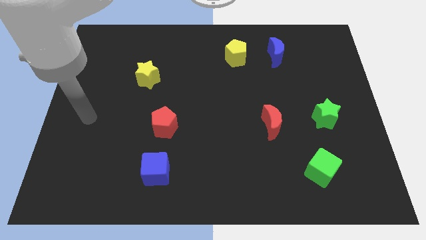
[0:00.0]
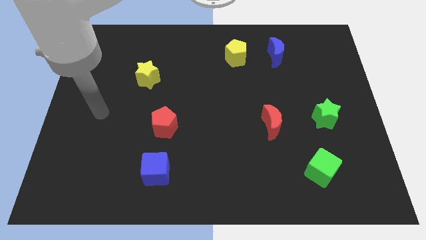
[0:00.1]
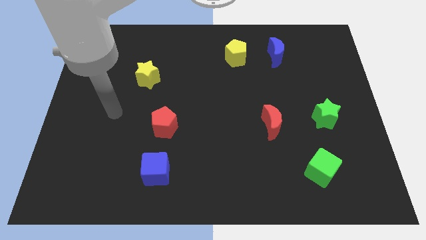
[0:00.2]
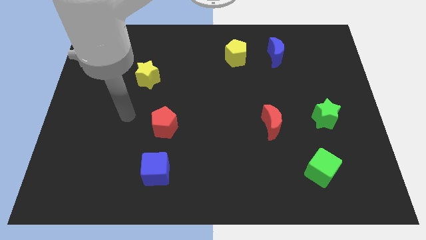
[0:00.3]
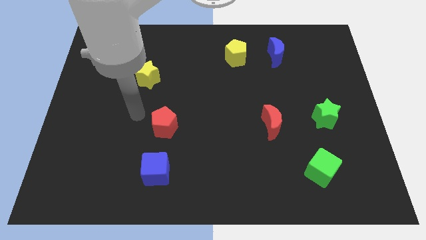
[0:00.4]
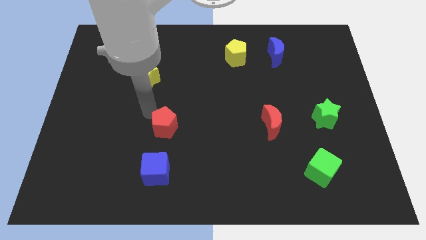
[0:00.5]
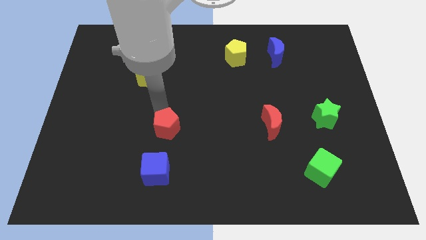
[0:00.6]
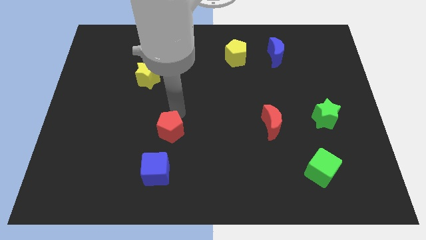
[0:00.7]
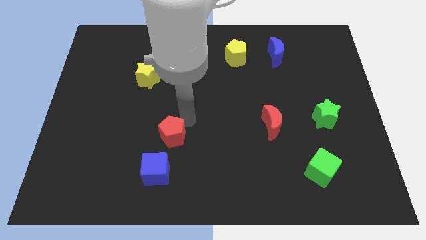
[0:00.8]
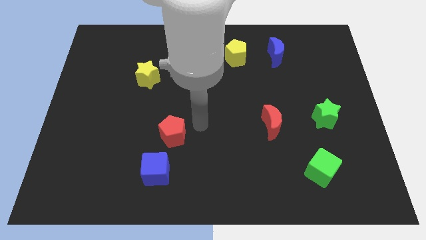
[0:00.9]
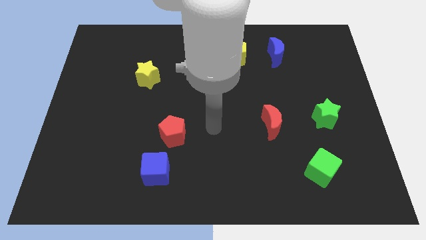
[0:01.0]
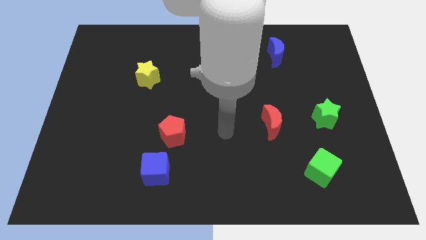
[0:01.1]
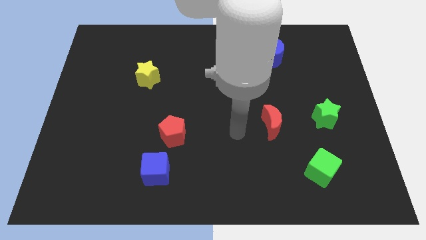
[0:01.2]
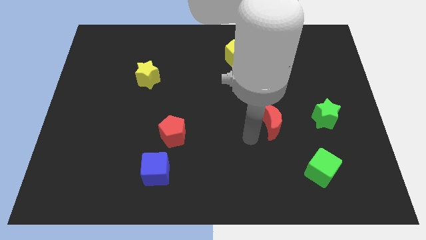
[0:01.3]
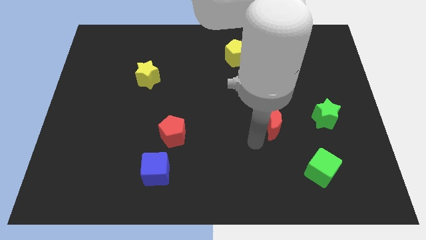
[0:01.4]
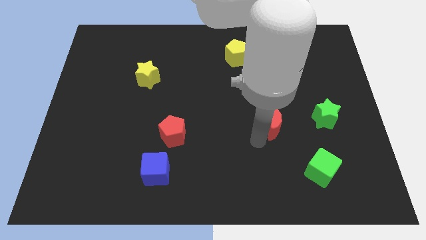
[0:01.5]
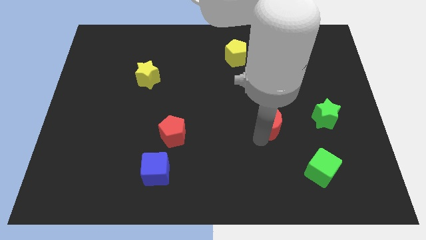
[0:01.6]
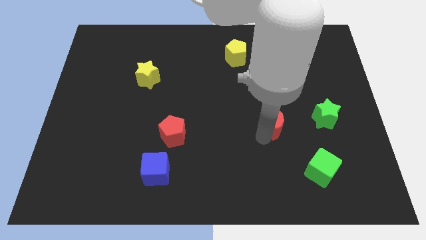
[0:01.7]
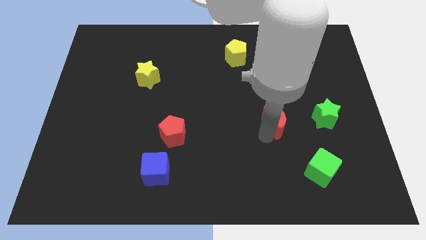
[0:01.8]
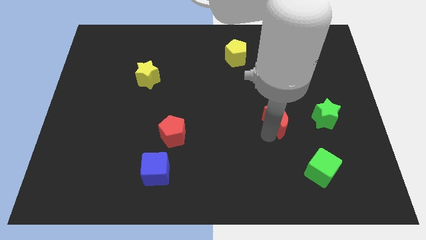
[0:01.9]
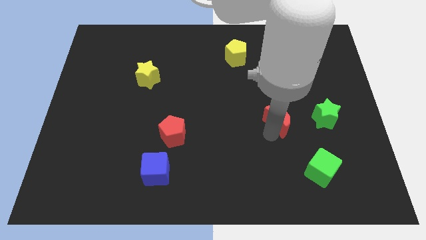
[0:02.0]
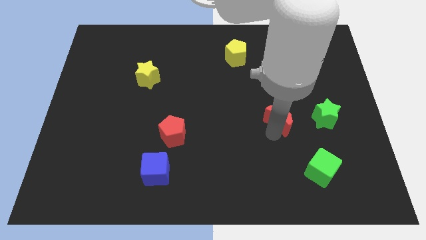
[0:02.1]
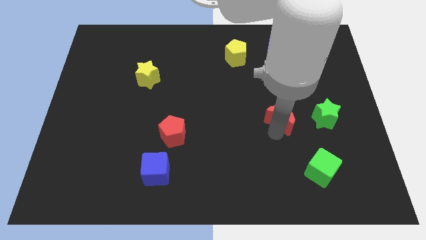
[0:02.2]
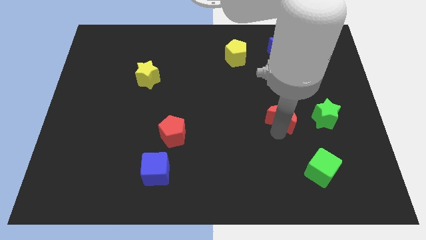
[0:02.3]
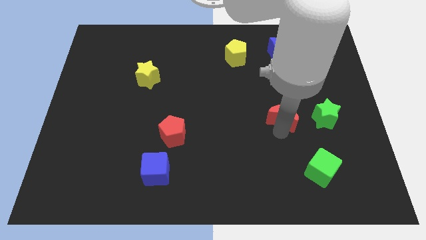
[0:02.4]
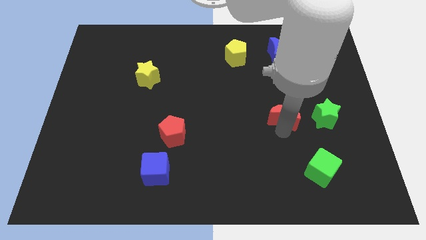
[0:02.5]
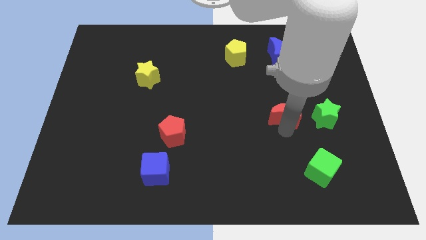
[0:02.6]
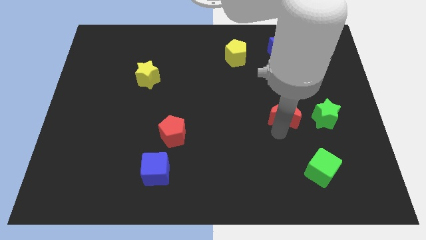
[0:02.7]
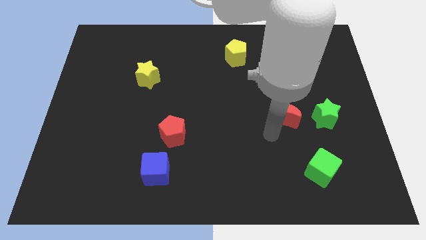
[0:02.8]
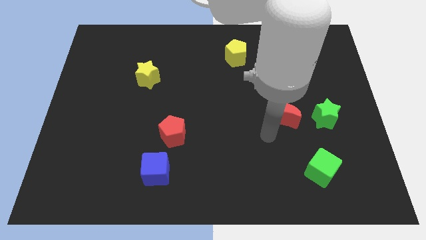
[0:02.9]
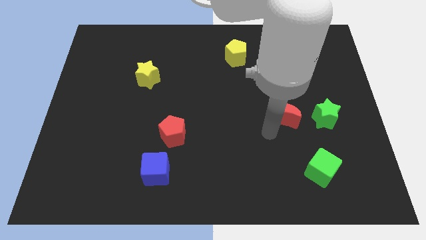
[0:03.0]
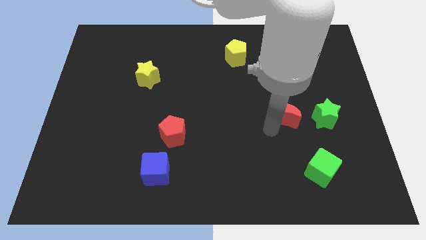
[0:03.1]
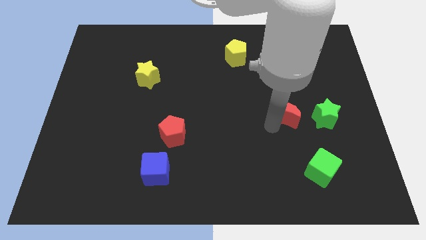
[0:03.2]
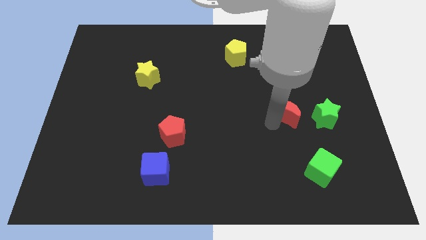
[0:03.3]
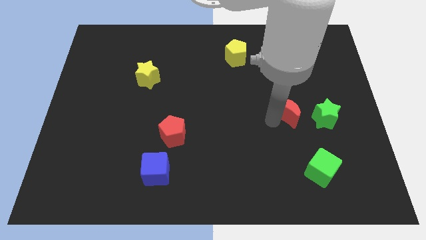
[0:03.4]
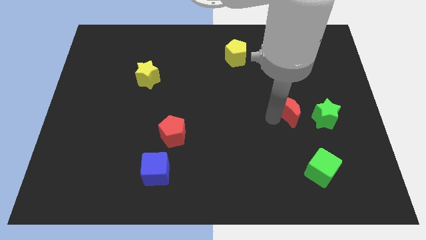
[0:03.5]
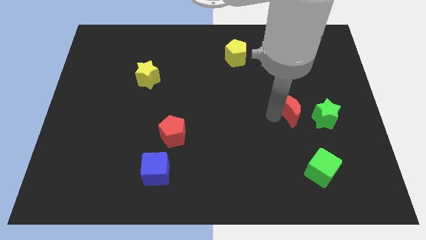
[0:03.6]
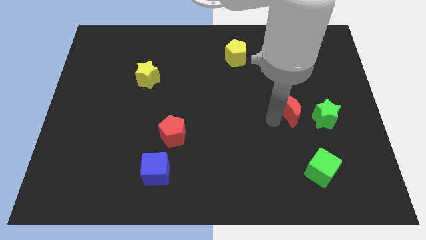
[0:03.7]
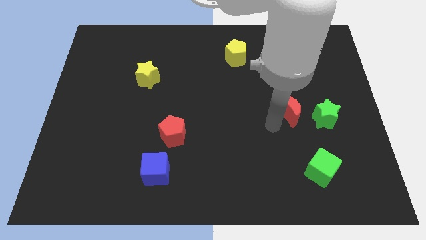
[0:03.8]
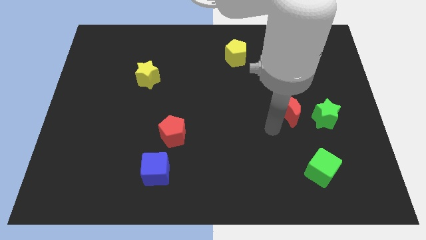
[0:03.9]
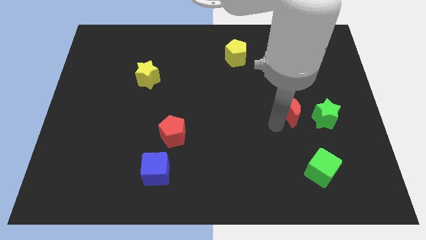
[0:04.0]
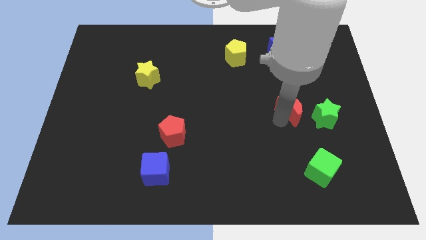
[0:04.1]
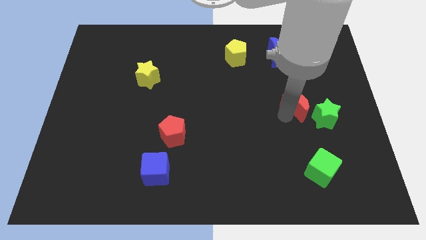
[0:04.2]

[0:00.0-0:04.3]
slightly move the red moon upwards and then right

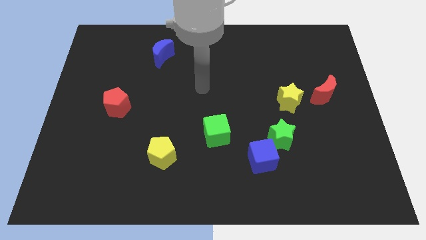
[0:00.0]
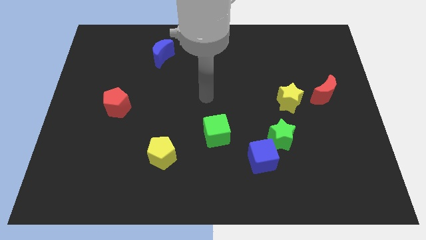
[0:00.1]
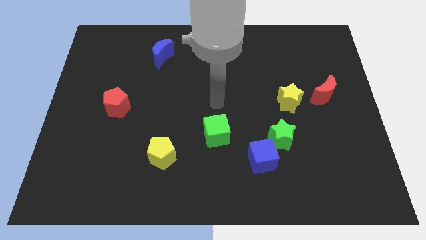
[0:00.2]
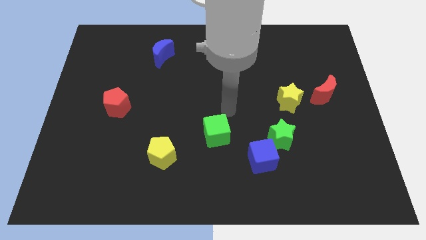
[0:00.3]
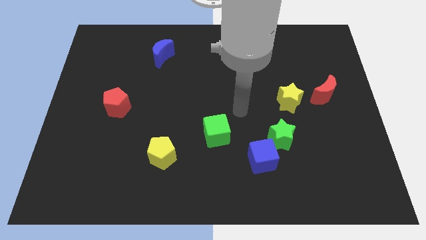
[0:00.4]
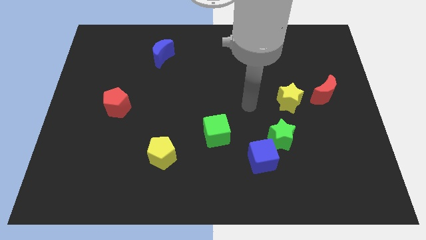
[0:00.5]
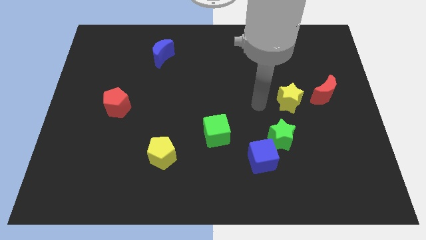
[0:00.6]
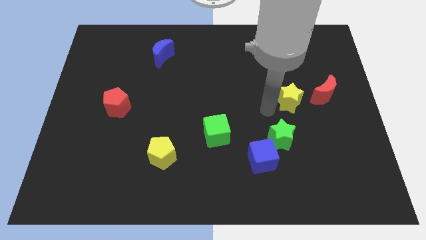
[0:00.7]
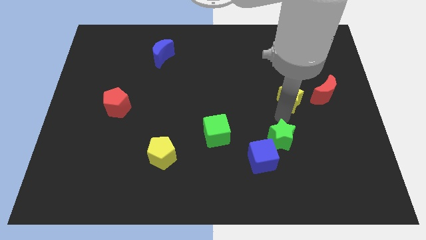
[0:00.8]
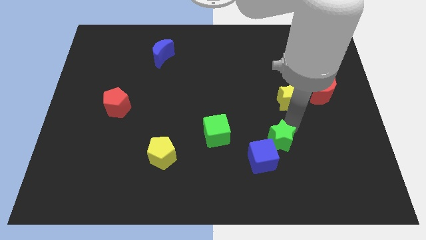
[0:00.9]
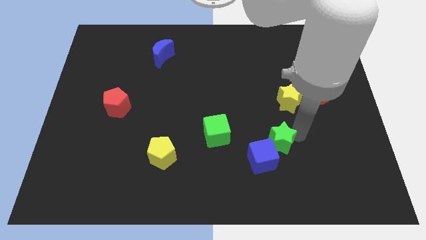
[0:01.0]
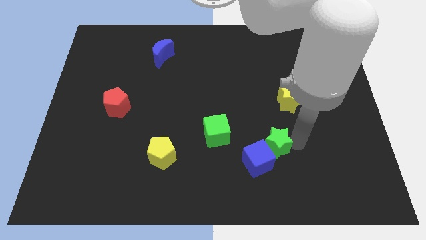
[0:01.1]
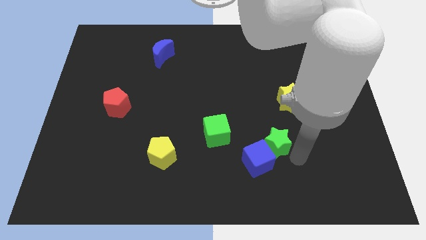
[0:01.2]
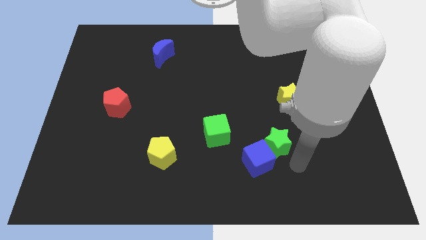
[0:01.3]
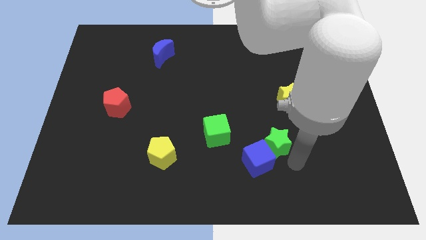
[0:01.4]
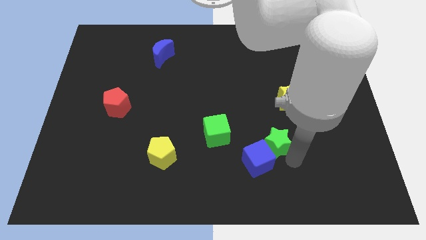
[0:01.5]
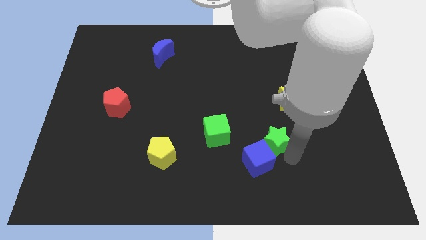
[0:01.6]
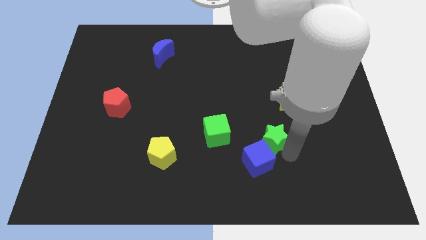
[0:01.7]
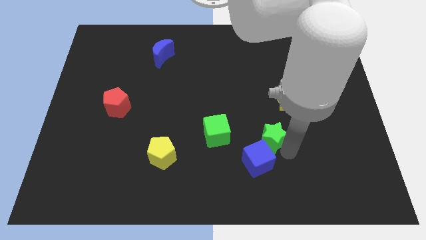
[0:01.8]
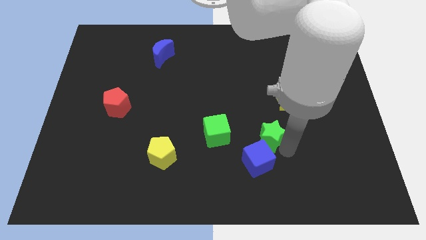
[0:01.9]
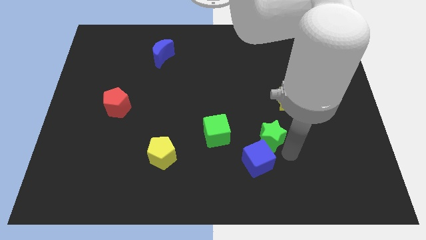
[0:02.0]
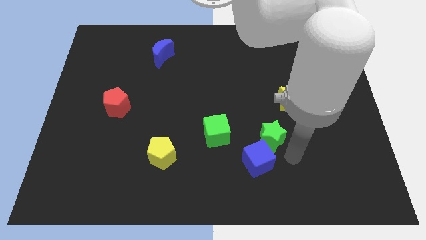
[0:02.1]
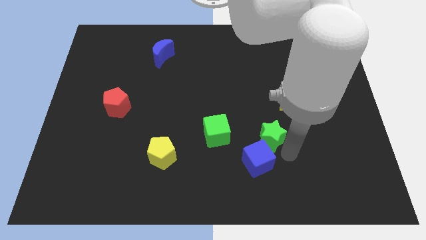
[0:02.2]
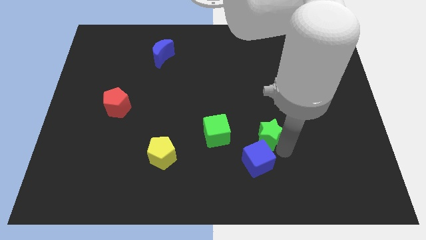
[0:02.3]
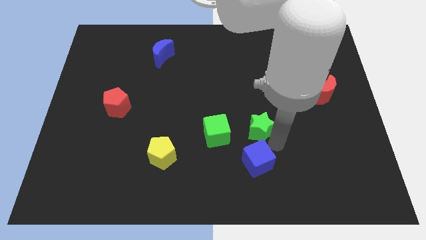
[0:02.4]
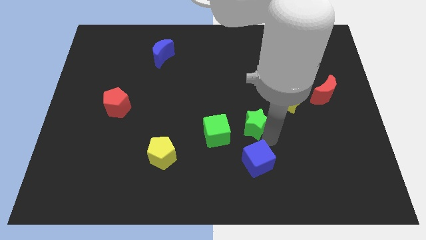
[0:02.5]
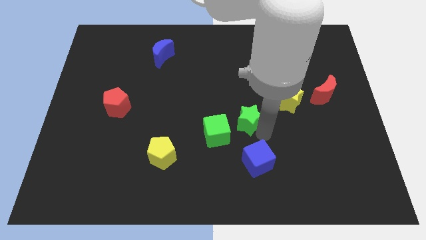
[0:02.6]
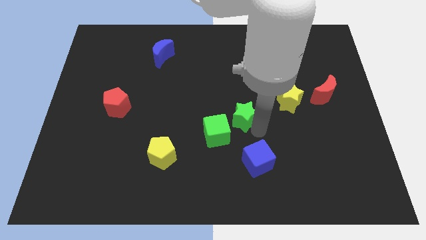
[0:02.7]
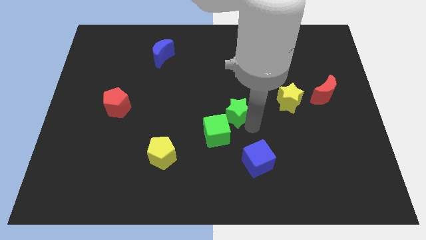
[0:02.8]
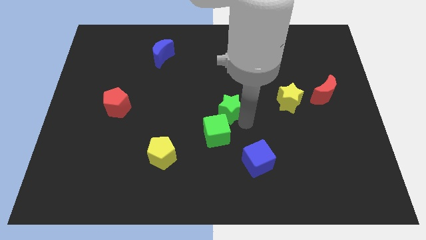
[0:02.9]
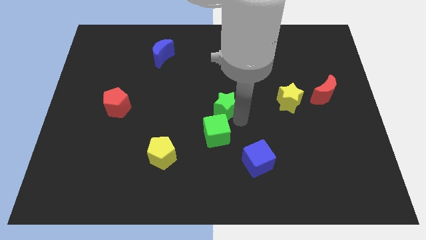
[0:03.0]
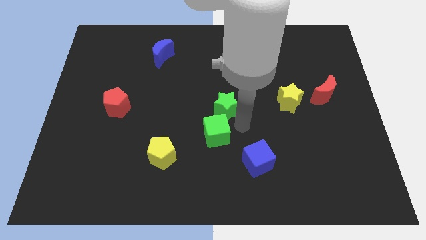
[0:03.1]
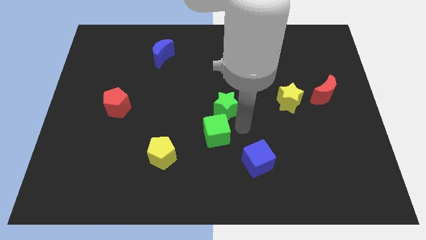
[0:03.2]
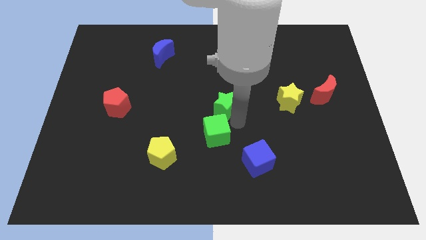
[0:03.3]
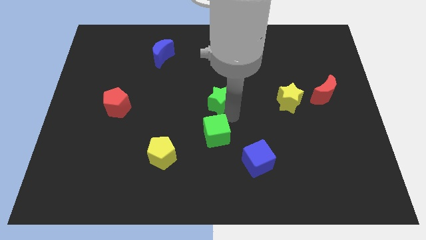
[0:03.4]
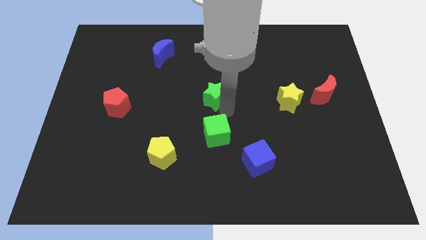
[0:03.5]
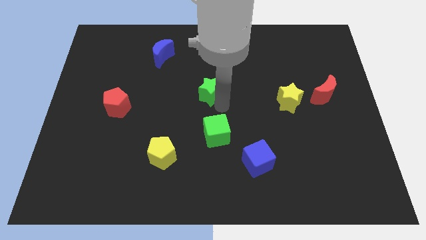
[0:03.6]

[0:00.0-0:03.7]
push the green star upwards and left

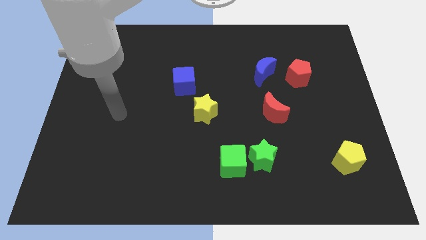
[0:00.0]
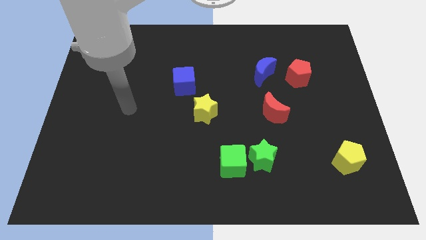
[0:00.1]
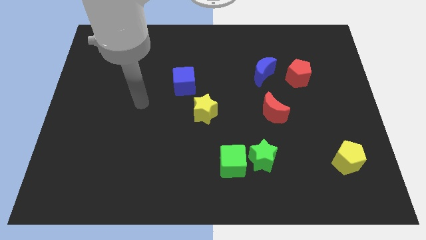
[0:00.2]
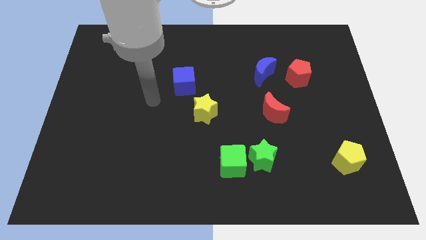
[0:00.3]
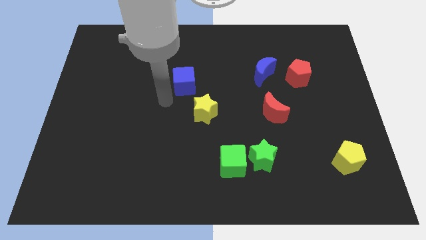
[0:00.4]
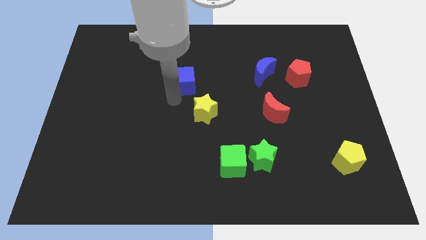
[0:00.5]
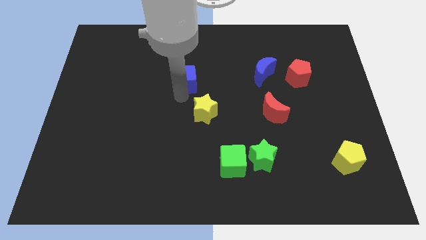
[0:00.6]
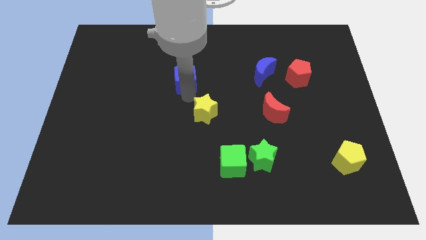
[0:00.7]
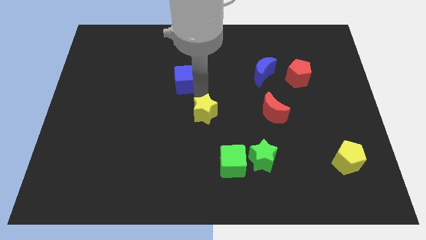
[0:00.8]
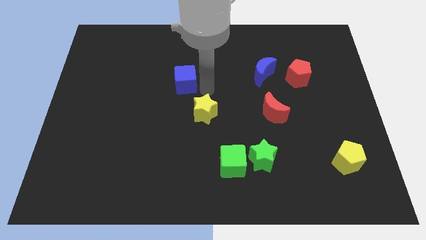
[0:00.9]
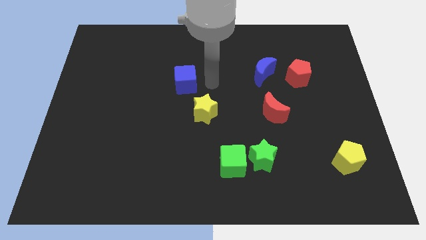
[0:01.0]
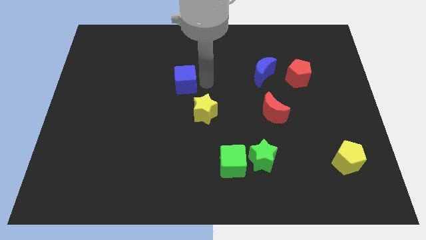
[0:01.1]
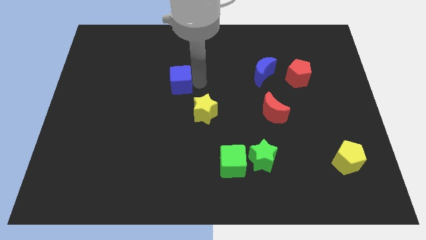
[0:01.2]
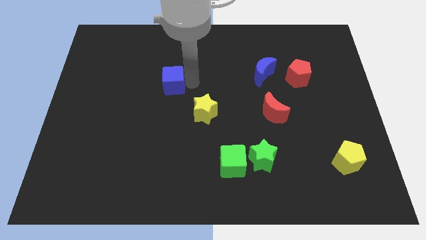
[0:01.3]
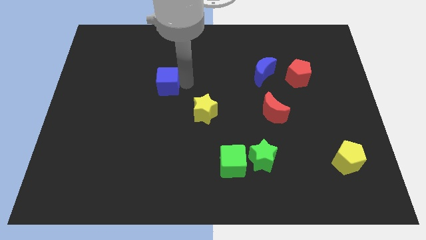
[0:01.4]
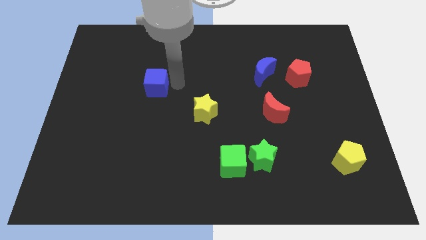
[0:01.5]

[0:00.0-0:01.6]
move the blue cube left somewhat
